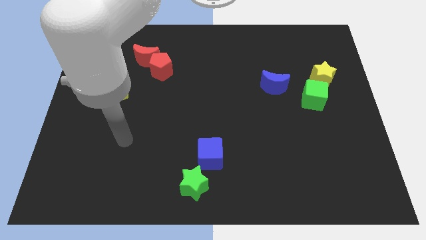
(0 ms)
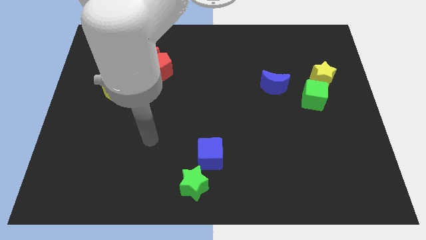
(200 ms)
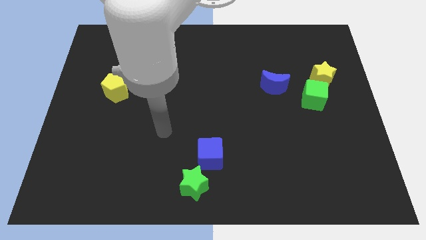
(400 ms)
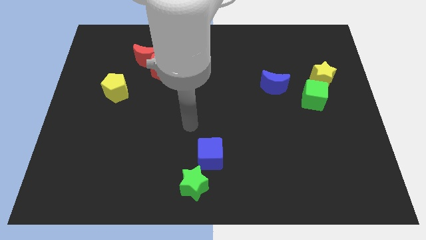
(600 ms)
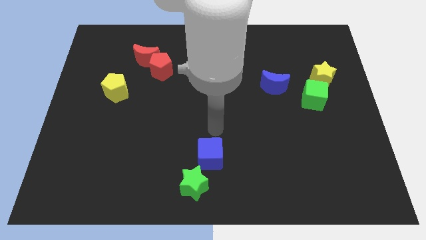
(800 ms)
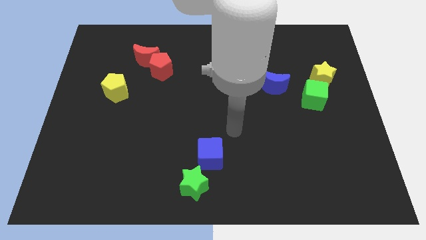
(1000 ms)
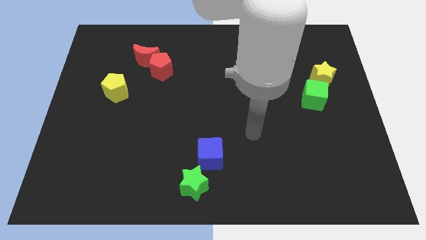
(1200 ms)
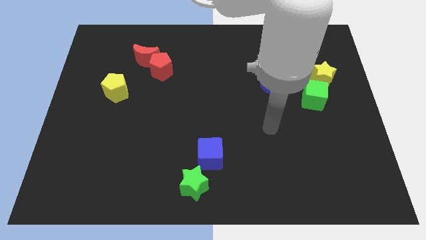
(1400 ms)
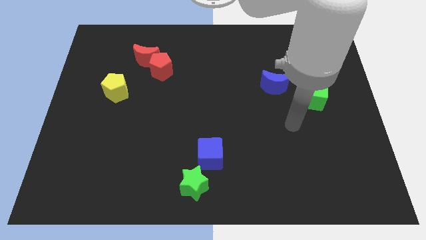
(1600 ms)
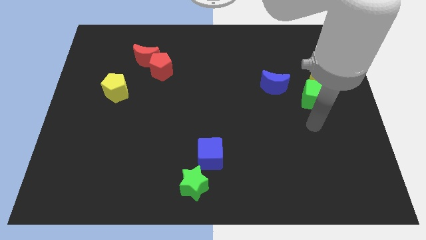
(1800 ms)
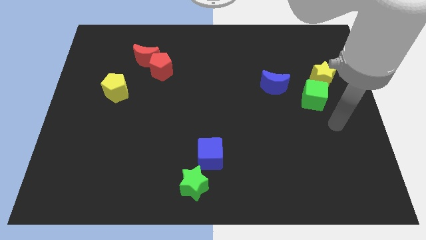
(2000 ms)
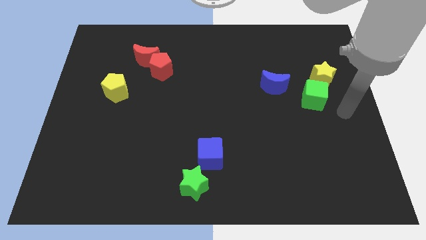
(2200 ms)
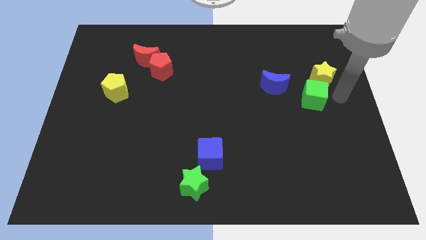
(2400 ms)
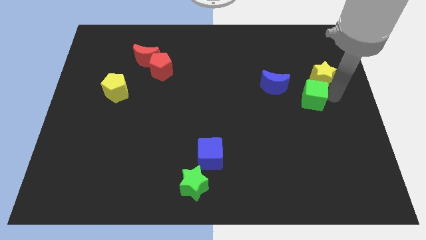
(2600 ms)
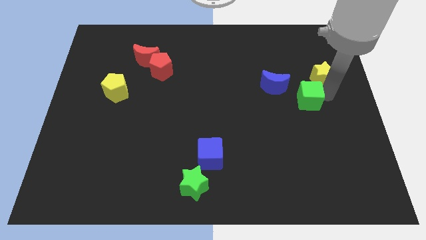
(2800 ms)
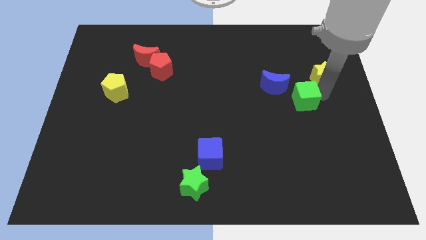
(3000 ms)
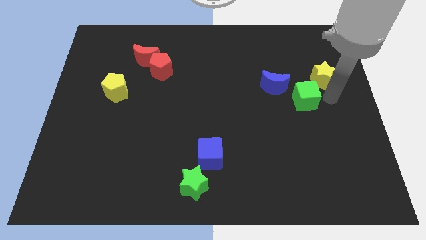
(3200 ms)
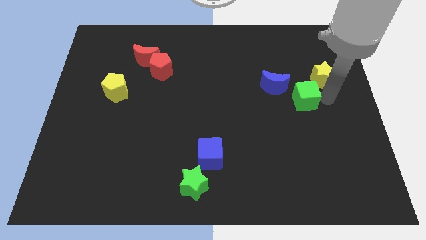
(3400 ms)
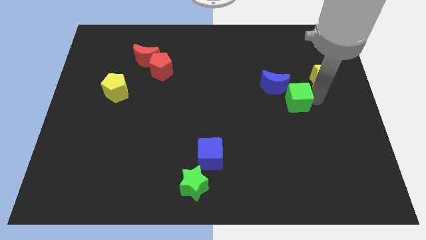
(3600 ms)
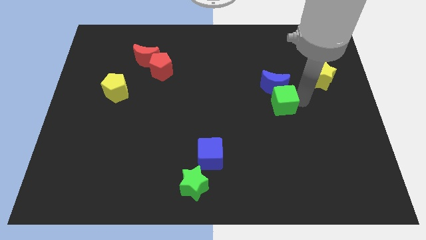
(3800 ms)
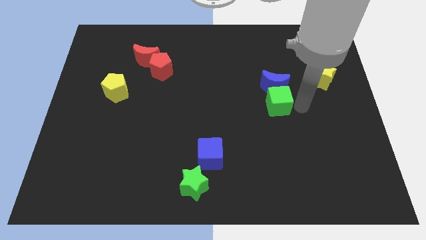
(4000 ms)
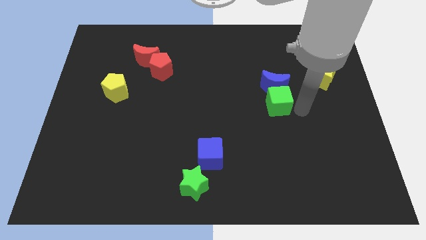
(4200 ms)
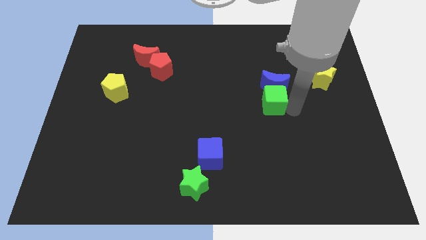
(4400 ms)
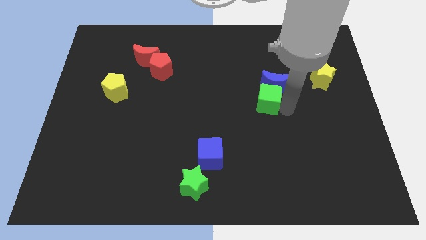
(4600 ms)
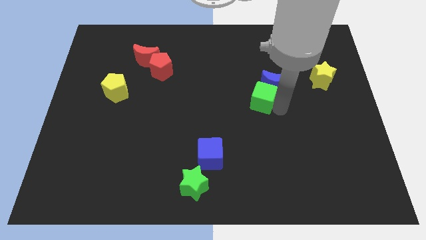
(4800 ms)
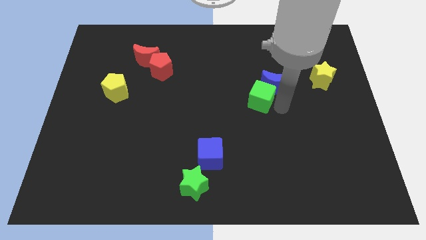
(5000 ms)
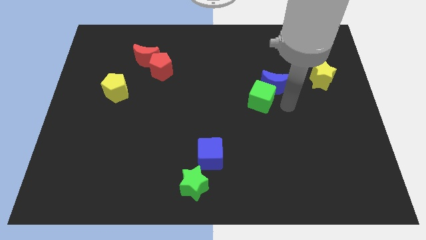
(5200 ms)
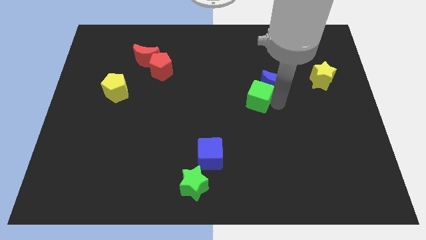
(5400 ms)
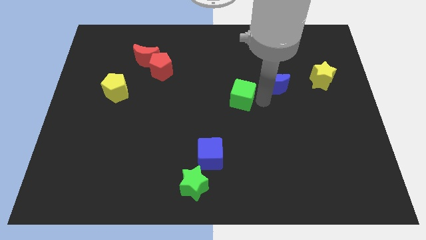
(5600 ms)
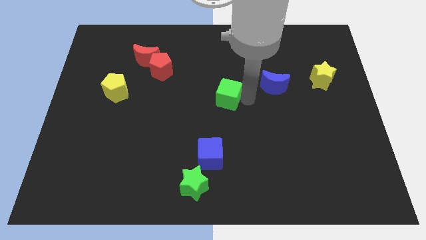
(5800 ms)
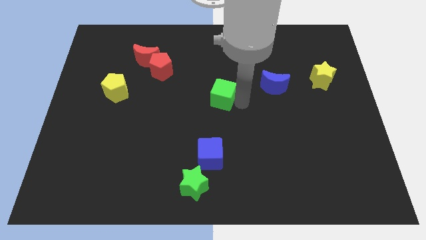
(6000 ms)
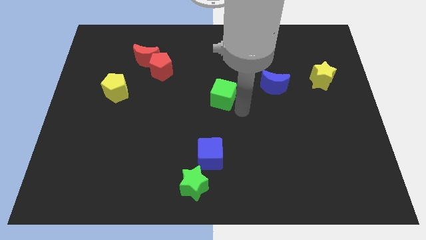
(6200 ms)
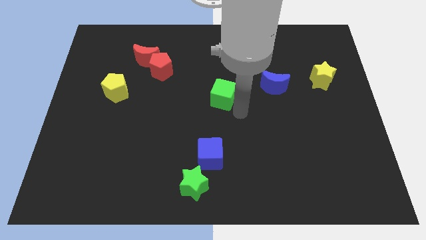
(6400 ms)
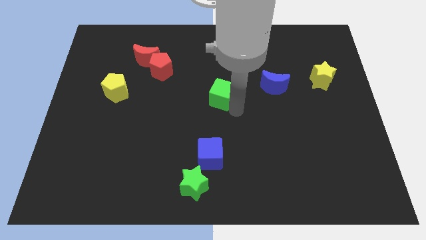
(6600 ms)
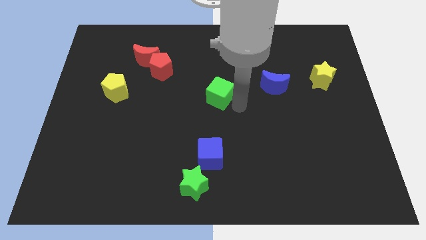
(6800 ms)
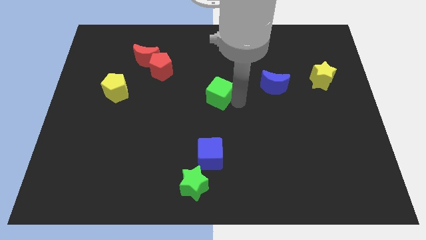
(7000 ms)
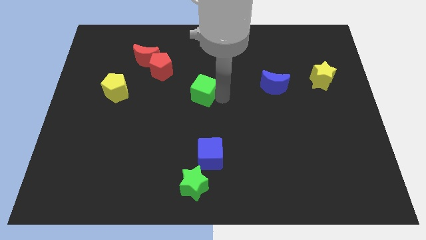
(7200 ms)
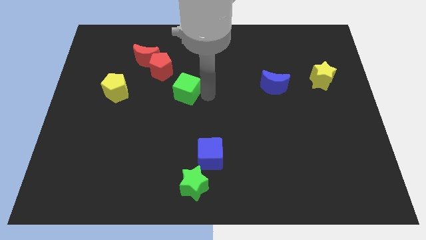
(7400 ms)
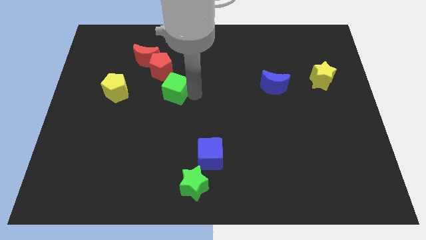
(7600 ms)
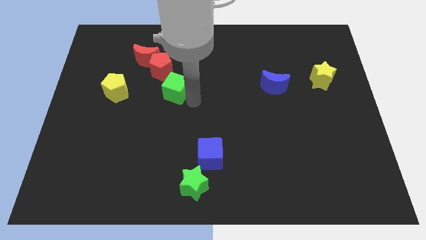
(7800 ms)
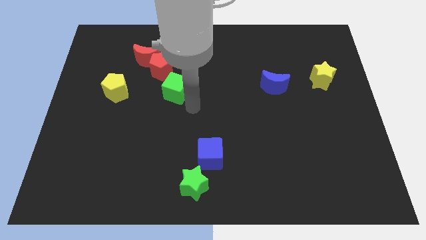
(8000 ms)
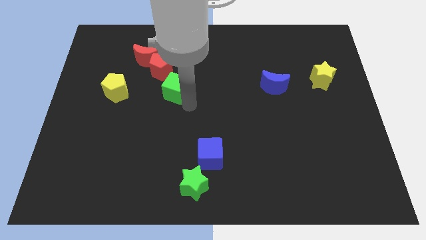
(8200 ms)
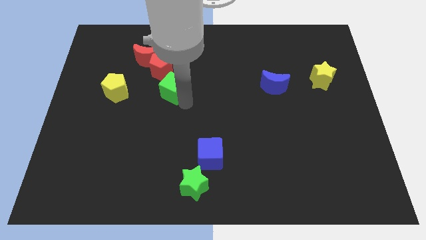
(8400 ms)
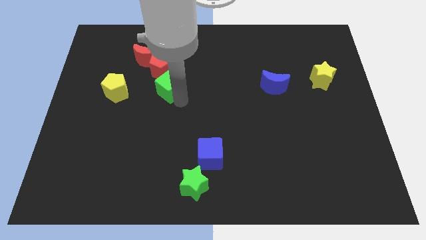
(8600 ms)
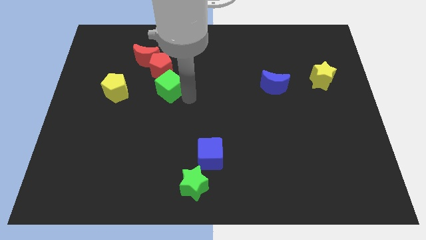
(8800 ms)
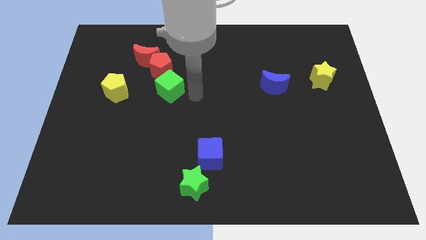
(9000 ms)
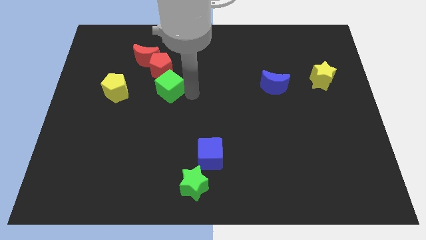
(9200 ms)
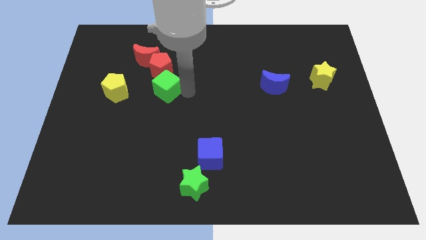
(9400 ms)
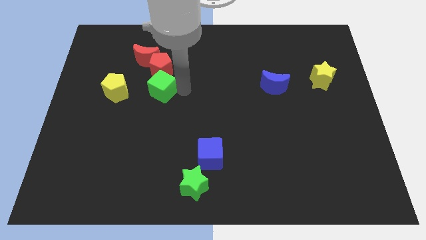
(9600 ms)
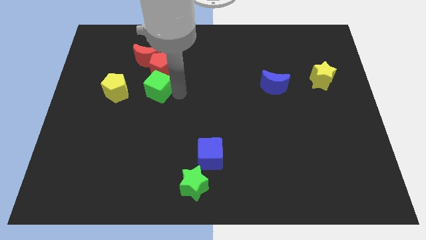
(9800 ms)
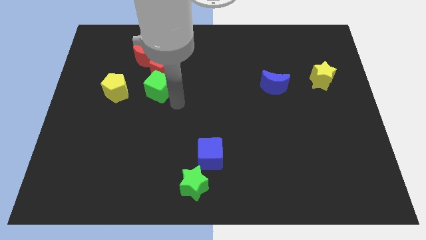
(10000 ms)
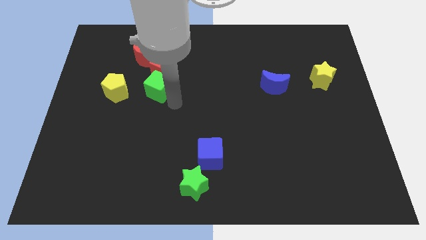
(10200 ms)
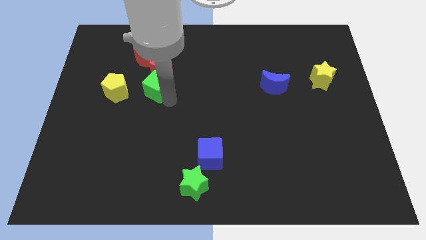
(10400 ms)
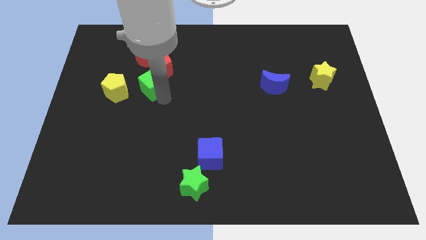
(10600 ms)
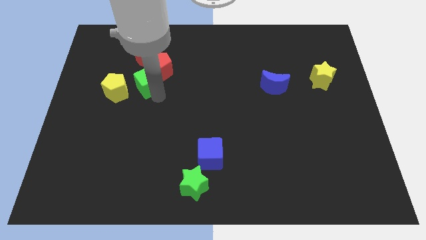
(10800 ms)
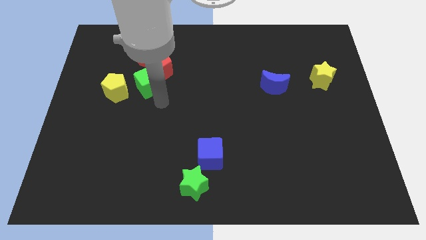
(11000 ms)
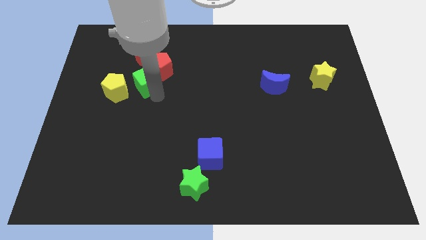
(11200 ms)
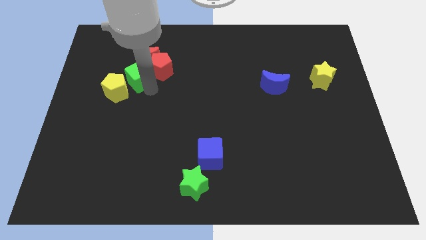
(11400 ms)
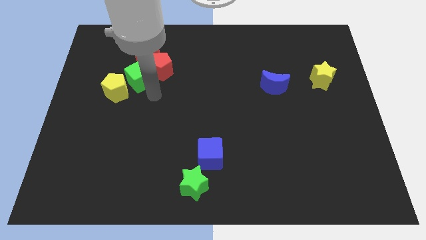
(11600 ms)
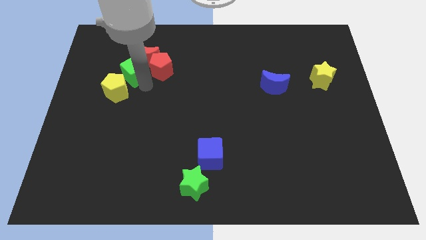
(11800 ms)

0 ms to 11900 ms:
slide the green cube to the top side of the yellow pentagon

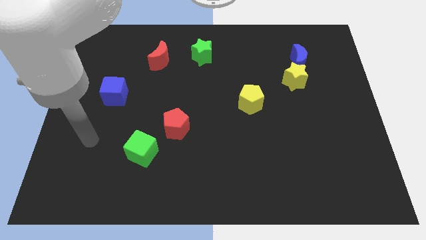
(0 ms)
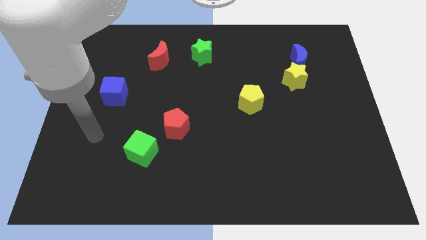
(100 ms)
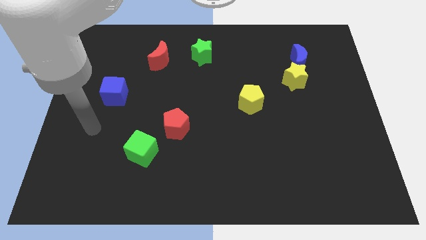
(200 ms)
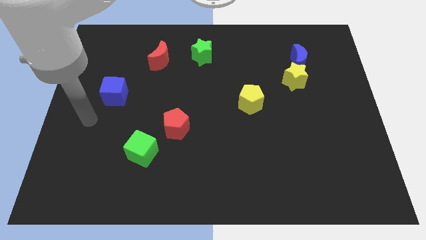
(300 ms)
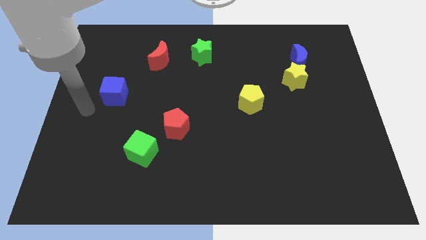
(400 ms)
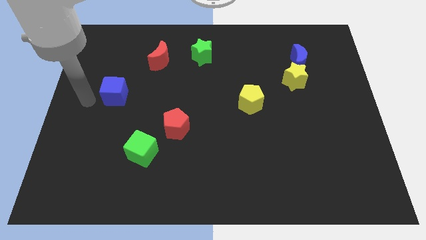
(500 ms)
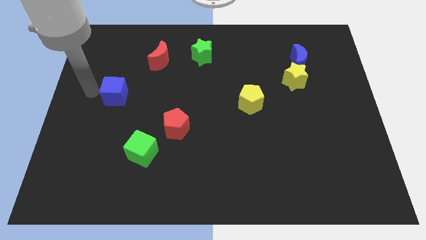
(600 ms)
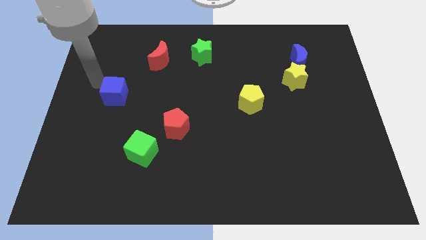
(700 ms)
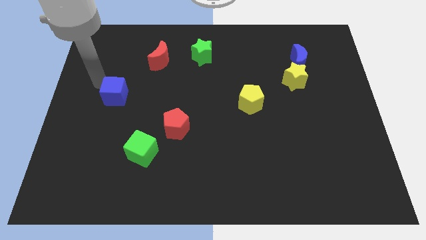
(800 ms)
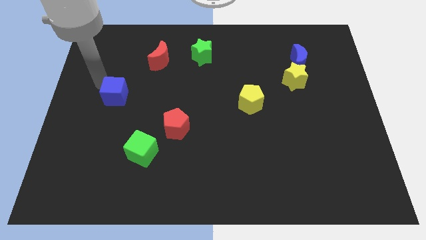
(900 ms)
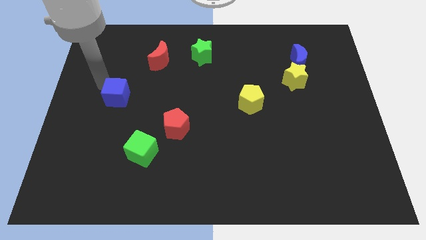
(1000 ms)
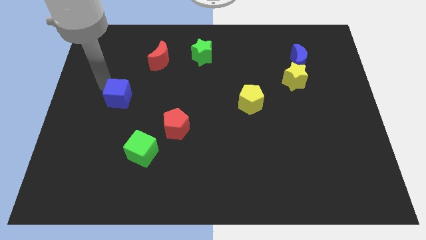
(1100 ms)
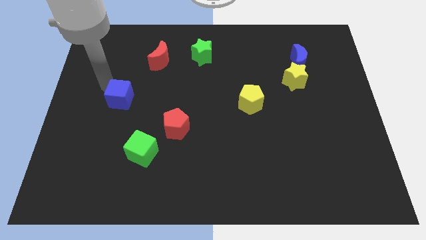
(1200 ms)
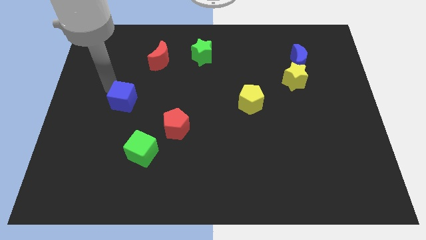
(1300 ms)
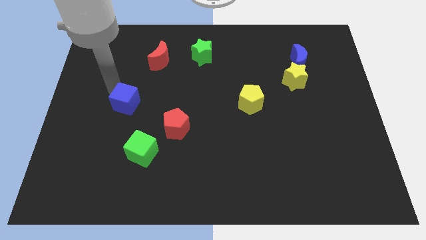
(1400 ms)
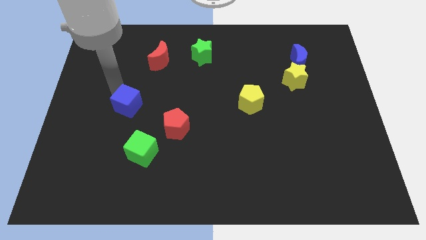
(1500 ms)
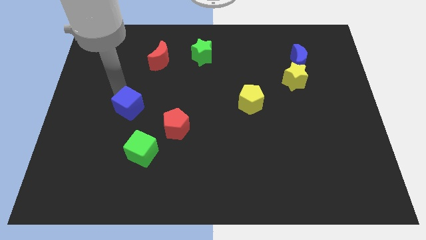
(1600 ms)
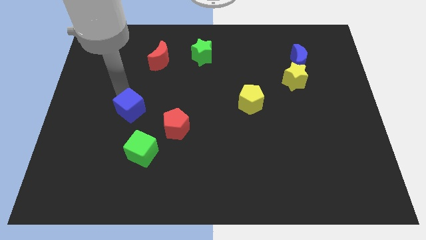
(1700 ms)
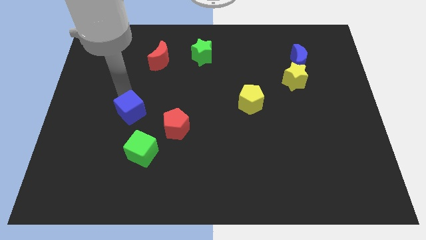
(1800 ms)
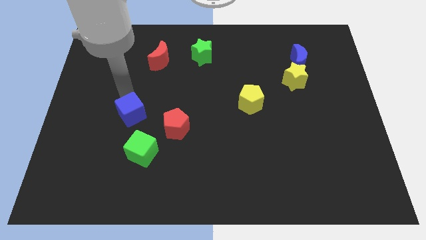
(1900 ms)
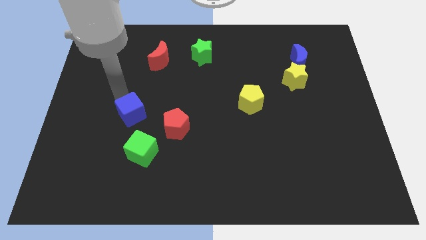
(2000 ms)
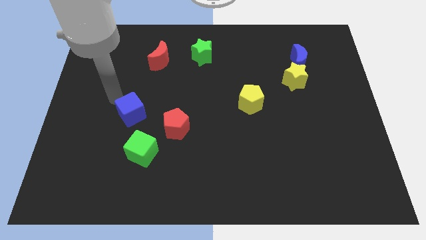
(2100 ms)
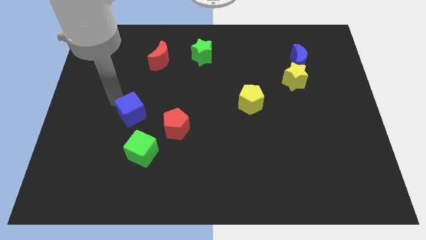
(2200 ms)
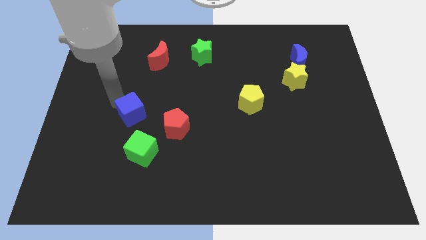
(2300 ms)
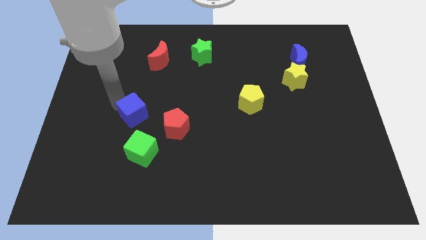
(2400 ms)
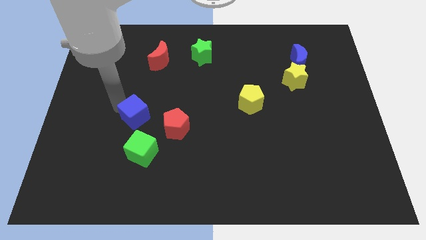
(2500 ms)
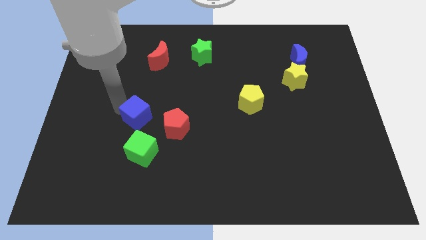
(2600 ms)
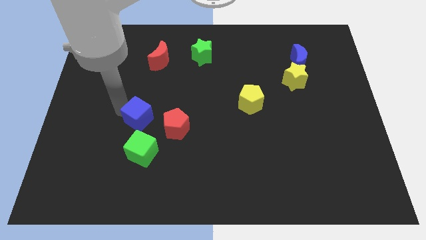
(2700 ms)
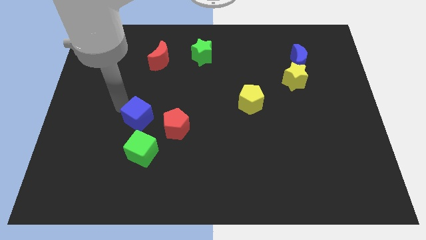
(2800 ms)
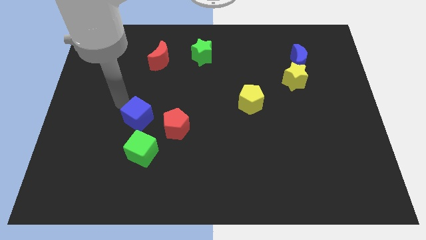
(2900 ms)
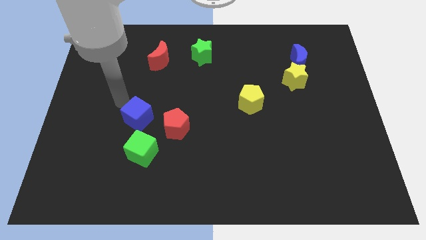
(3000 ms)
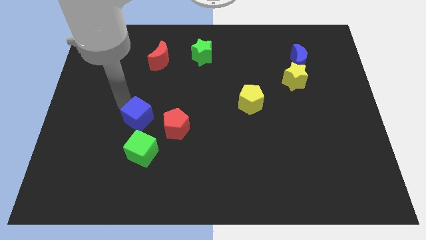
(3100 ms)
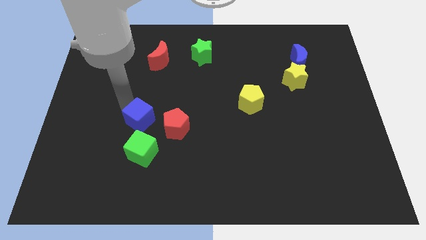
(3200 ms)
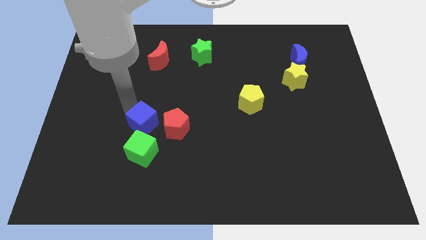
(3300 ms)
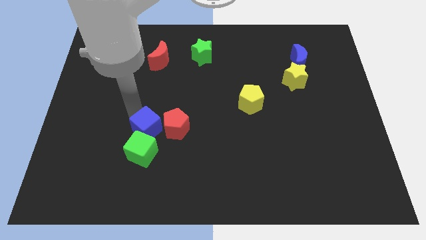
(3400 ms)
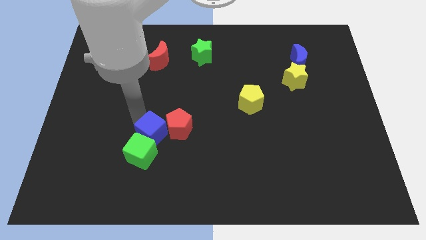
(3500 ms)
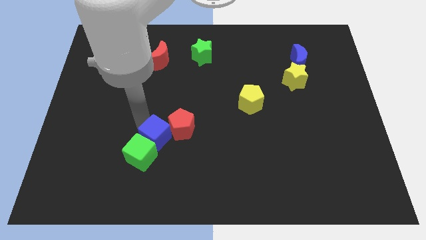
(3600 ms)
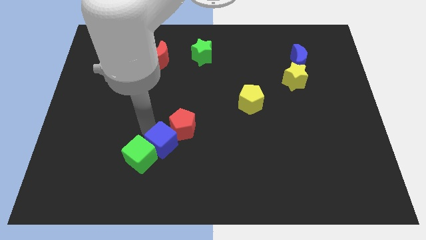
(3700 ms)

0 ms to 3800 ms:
move the blue cube to the right side of the green cube
